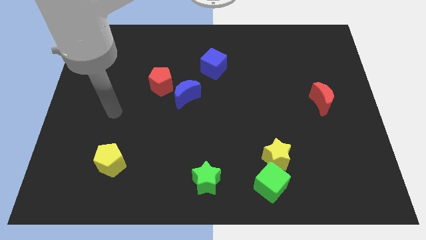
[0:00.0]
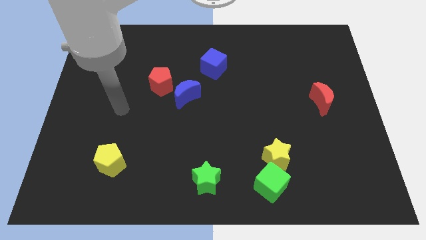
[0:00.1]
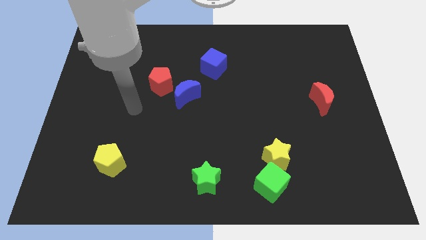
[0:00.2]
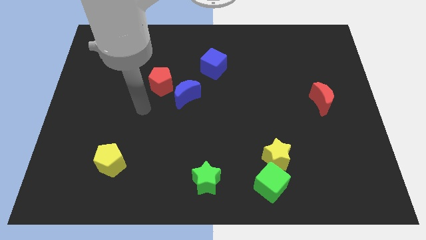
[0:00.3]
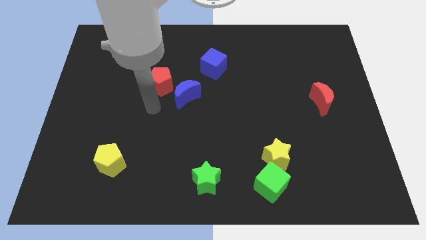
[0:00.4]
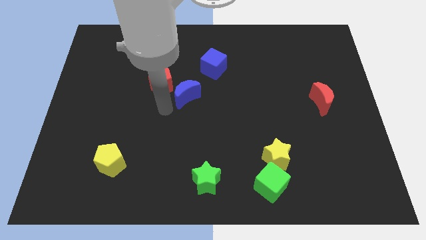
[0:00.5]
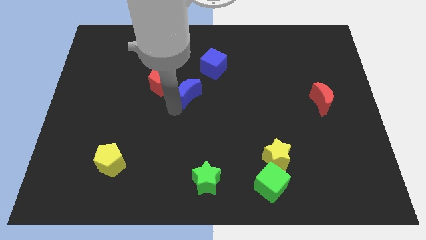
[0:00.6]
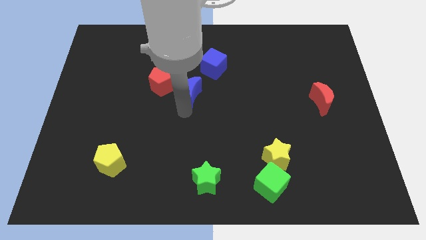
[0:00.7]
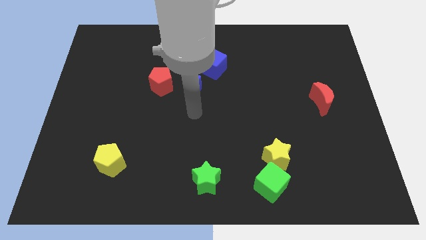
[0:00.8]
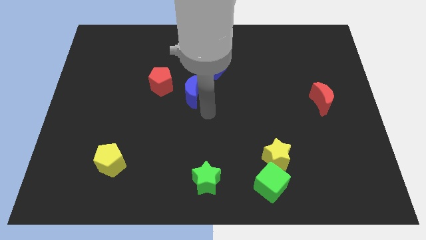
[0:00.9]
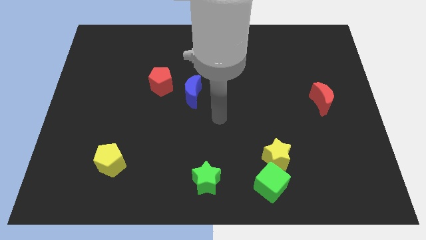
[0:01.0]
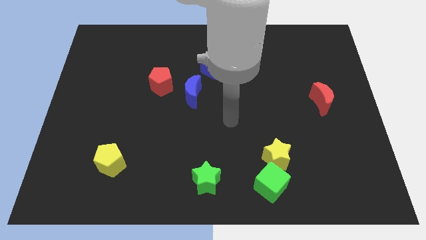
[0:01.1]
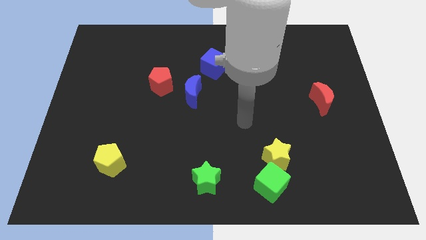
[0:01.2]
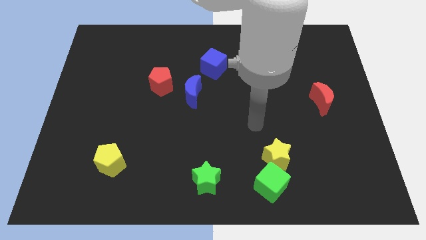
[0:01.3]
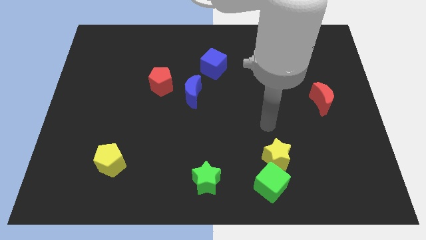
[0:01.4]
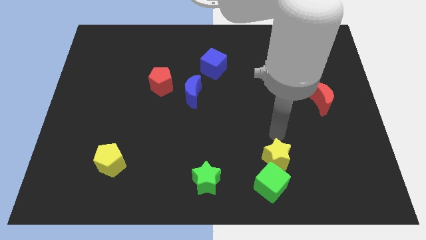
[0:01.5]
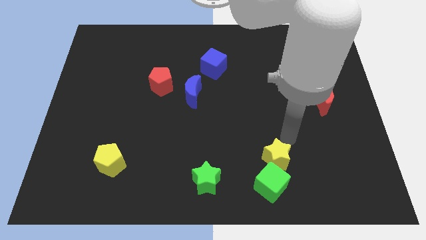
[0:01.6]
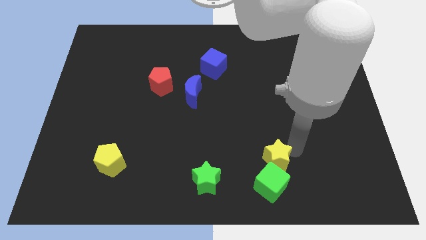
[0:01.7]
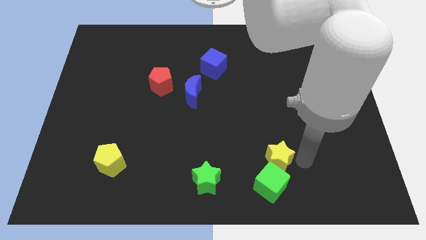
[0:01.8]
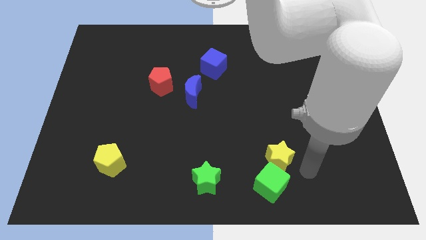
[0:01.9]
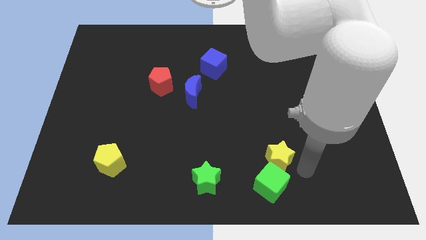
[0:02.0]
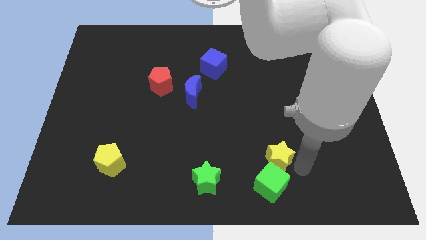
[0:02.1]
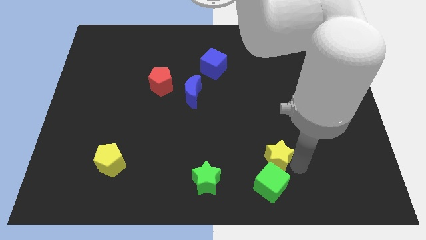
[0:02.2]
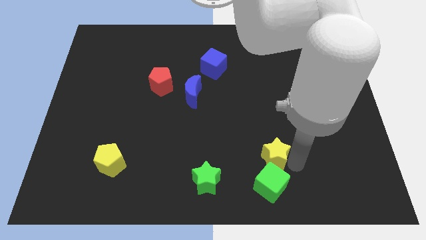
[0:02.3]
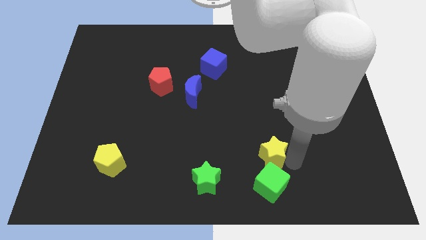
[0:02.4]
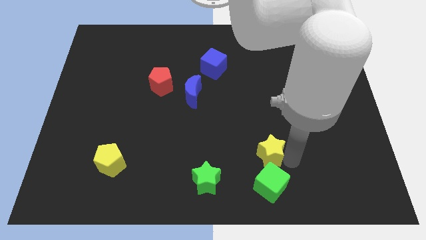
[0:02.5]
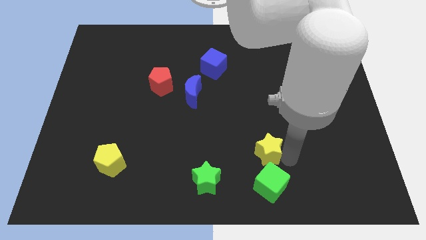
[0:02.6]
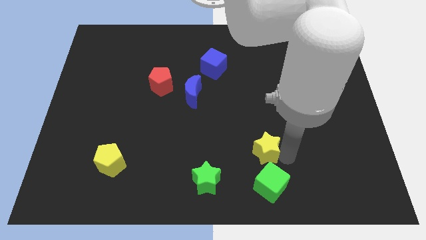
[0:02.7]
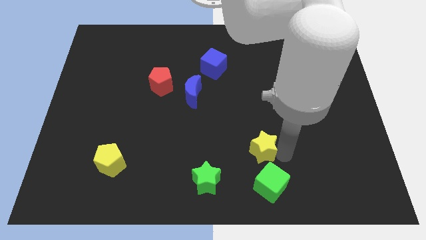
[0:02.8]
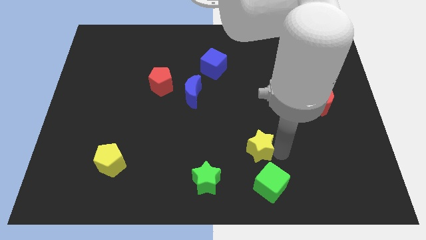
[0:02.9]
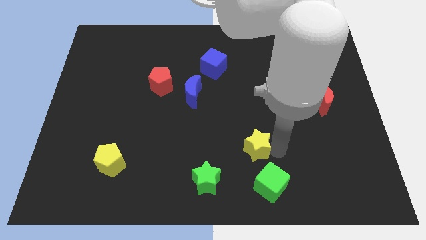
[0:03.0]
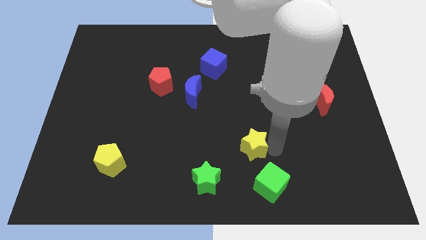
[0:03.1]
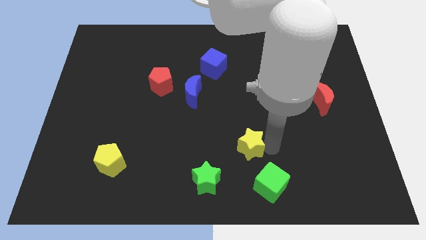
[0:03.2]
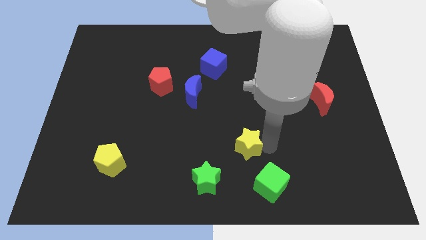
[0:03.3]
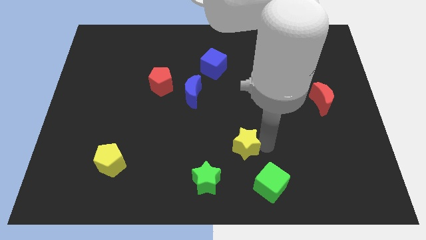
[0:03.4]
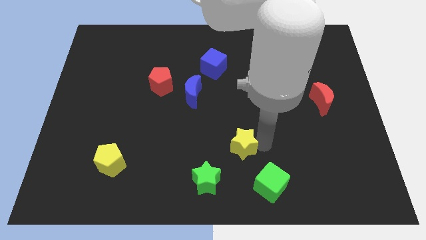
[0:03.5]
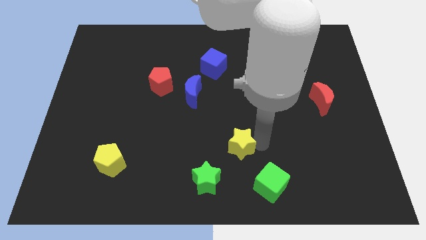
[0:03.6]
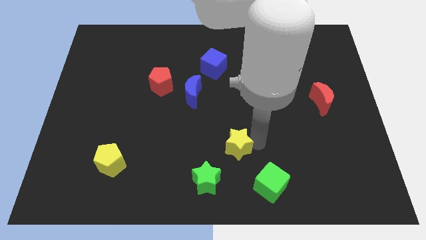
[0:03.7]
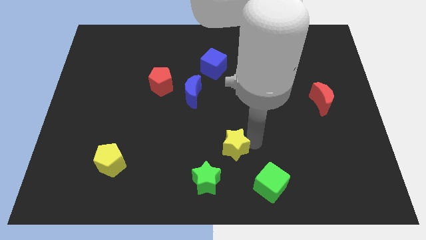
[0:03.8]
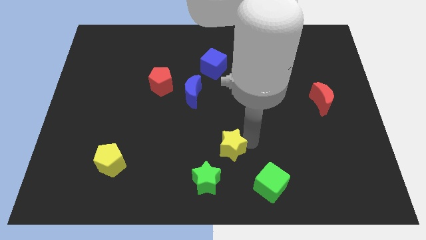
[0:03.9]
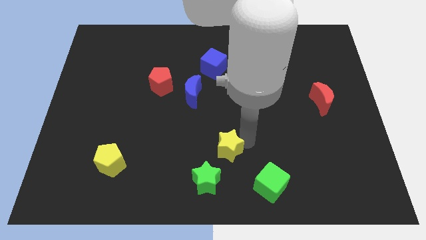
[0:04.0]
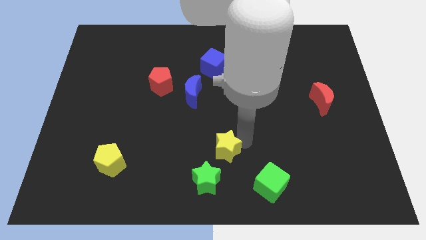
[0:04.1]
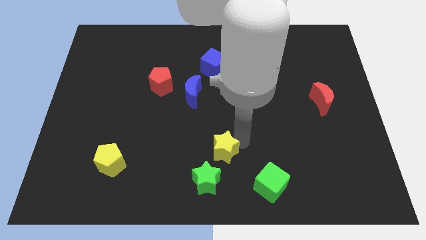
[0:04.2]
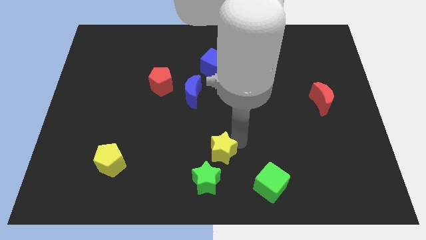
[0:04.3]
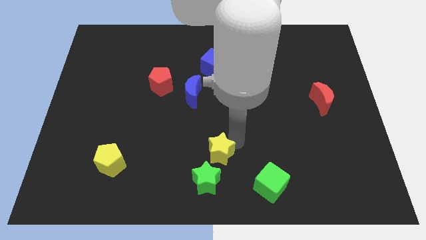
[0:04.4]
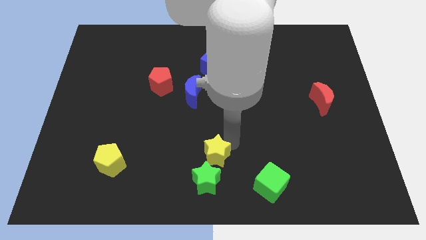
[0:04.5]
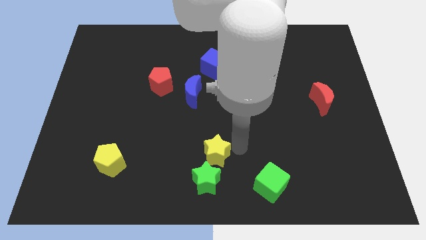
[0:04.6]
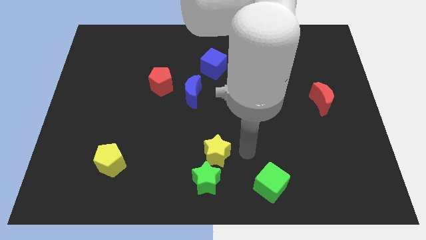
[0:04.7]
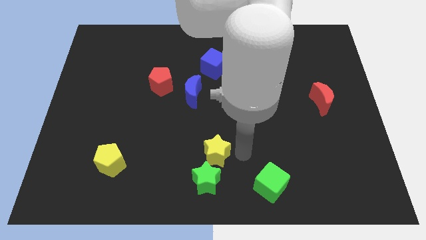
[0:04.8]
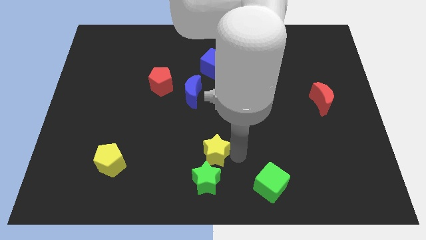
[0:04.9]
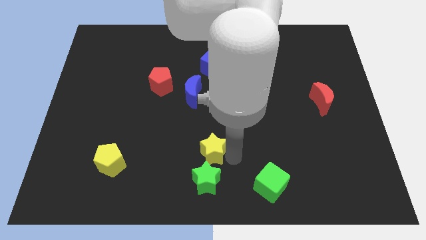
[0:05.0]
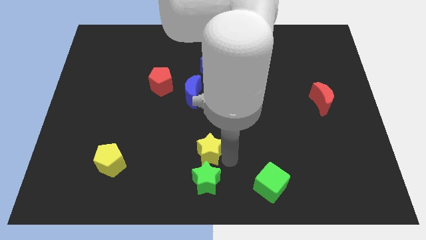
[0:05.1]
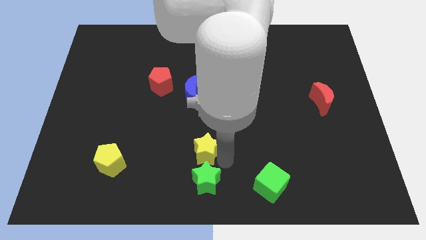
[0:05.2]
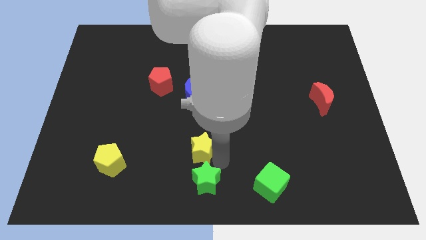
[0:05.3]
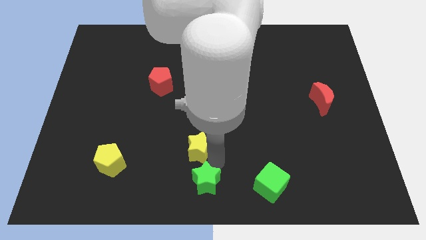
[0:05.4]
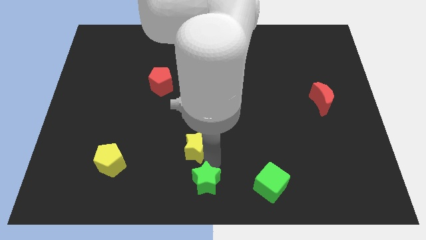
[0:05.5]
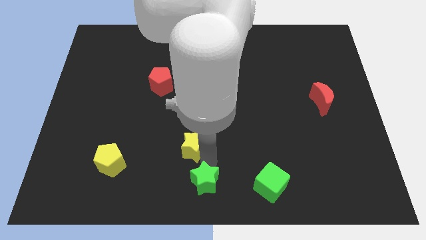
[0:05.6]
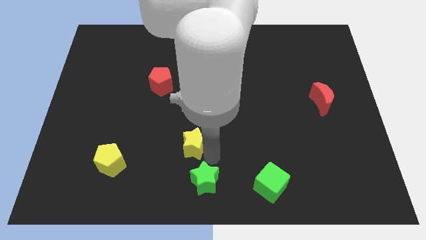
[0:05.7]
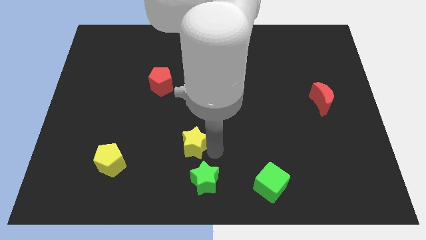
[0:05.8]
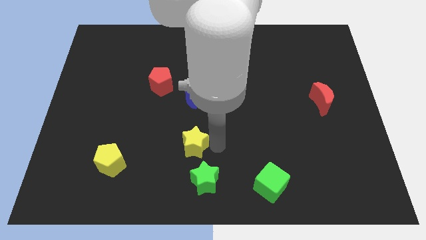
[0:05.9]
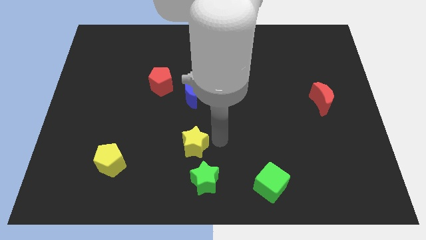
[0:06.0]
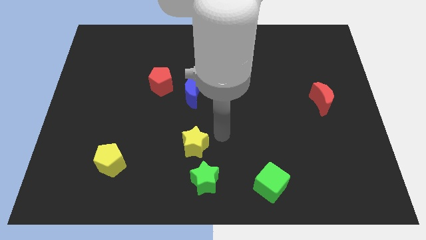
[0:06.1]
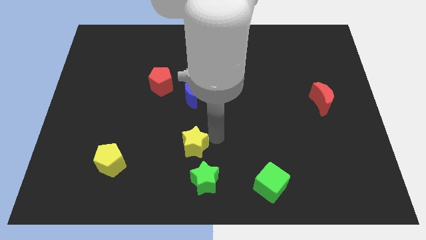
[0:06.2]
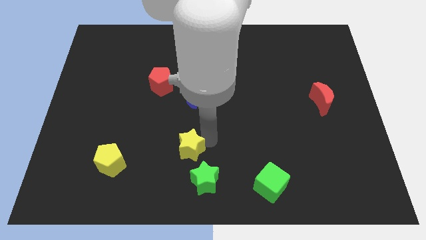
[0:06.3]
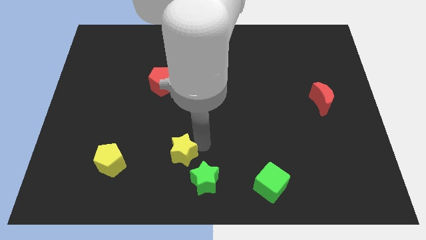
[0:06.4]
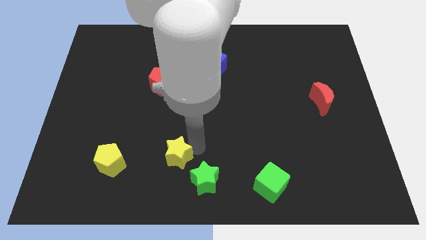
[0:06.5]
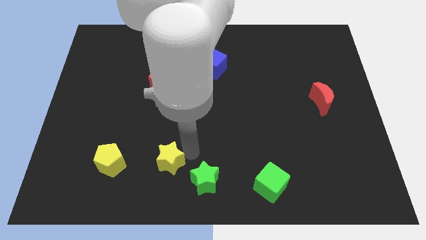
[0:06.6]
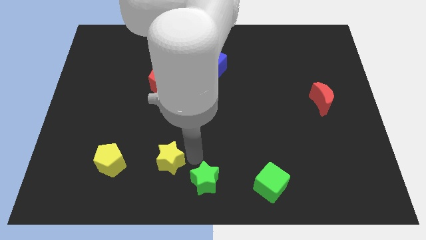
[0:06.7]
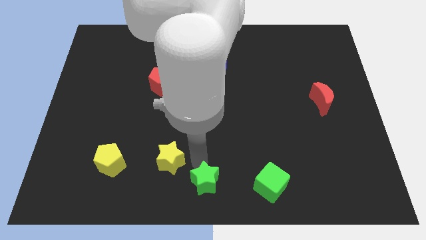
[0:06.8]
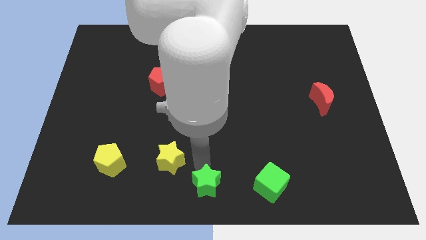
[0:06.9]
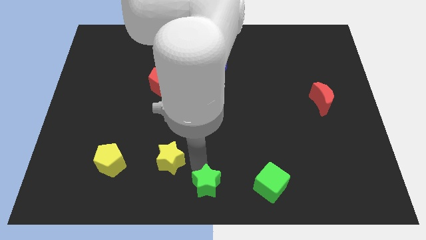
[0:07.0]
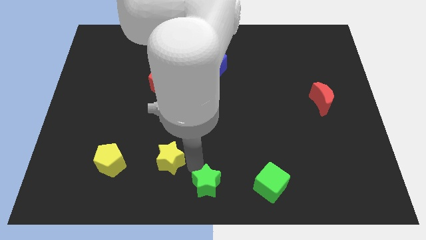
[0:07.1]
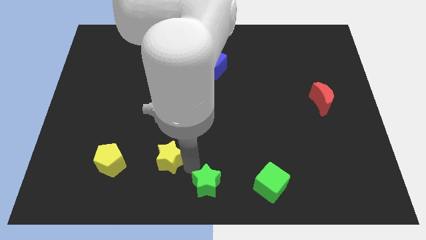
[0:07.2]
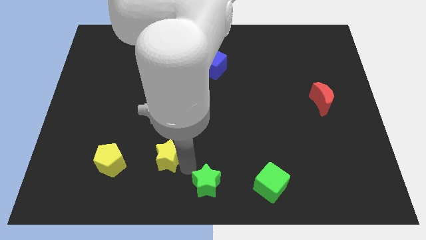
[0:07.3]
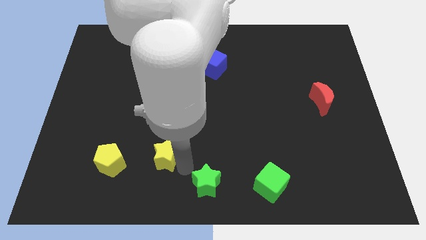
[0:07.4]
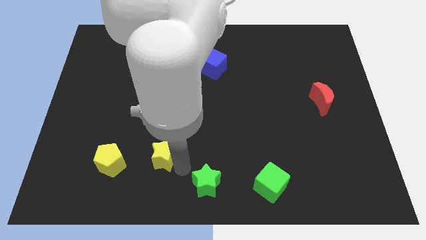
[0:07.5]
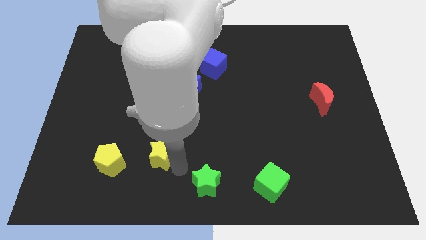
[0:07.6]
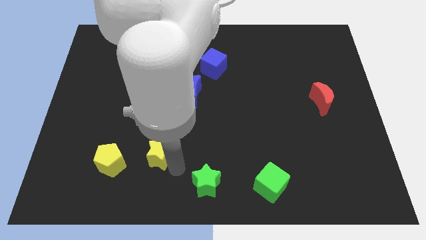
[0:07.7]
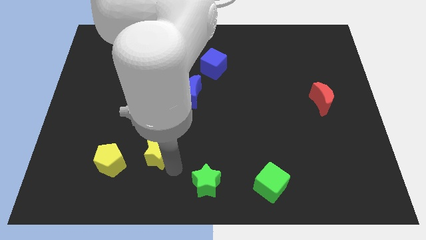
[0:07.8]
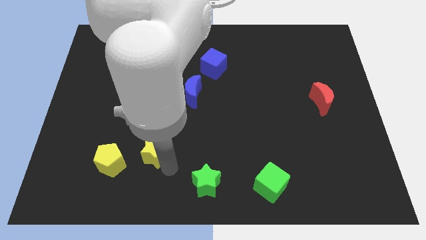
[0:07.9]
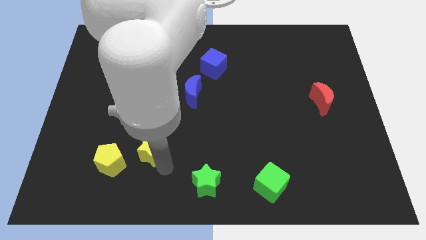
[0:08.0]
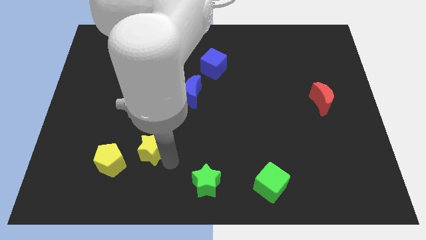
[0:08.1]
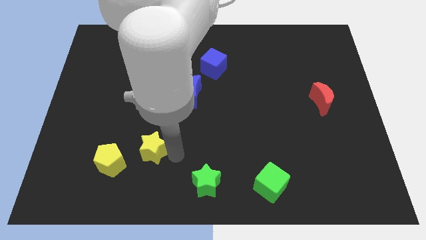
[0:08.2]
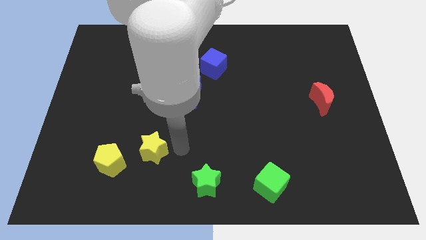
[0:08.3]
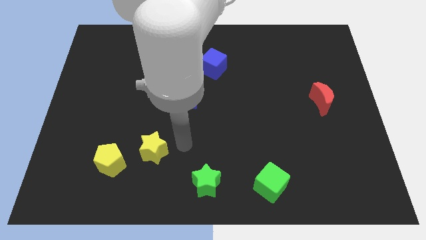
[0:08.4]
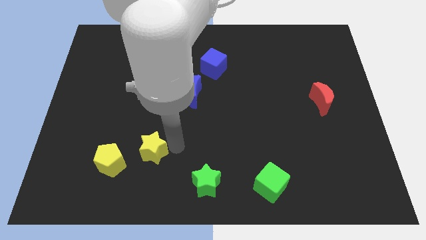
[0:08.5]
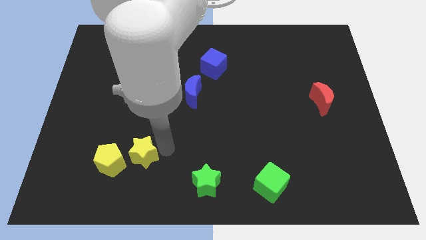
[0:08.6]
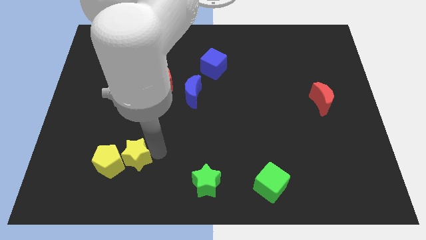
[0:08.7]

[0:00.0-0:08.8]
put the yellow star close to the yellow pentagon
